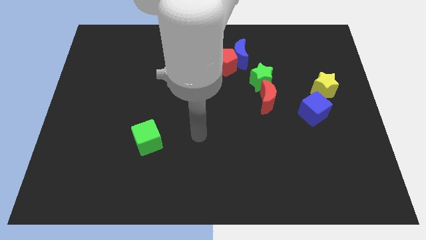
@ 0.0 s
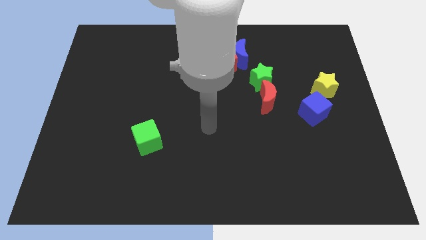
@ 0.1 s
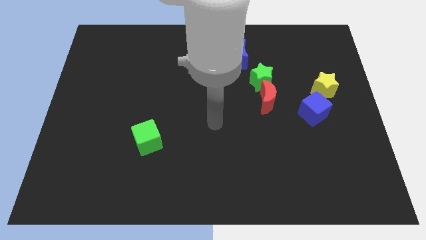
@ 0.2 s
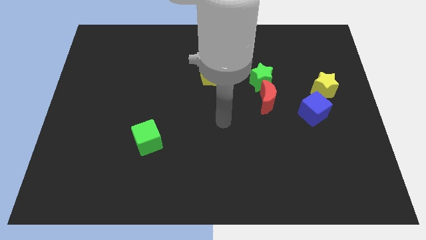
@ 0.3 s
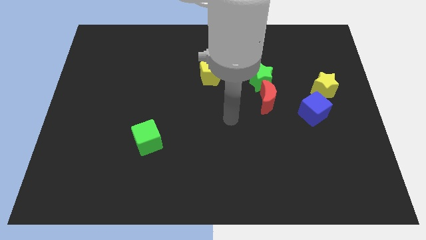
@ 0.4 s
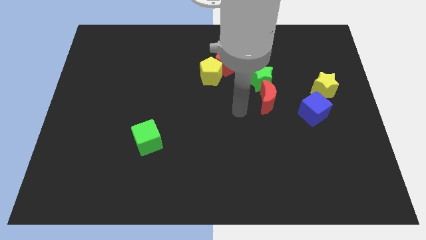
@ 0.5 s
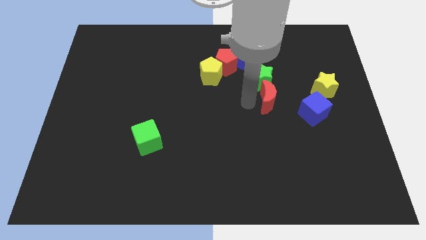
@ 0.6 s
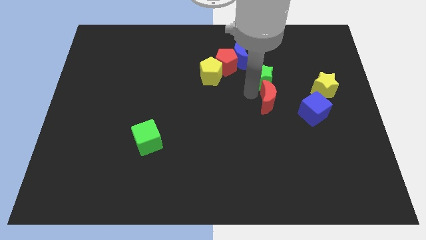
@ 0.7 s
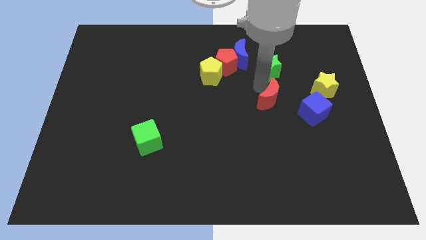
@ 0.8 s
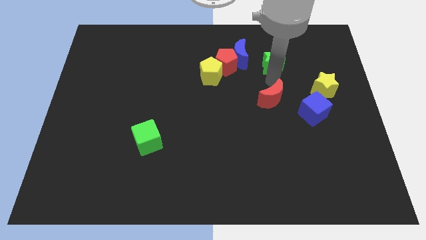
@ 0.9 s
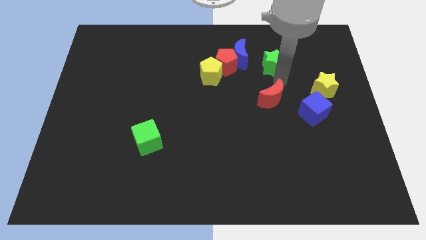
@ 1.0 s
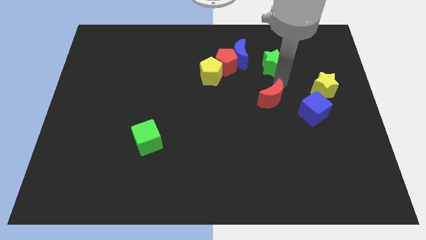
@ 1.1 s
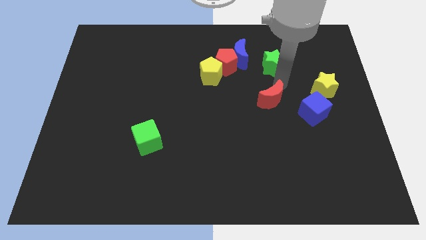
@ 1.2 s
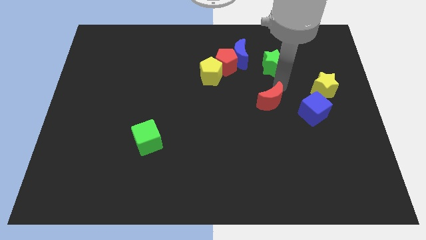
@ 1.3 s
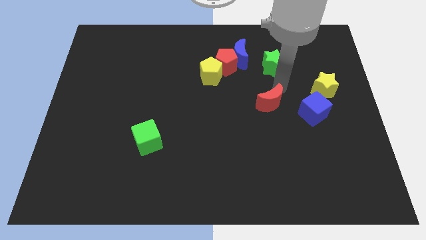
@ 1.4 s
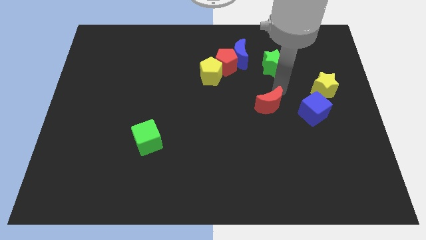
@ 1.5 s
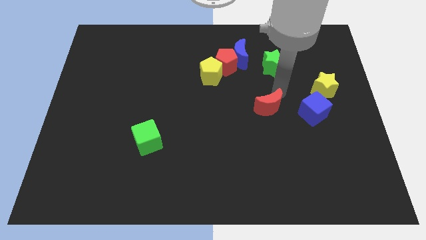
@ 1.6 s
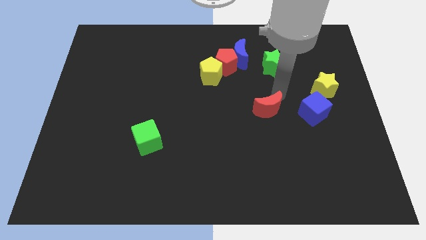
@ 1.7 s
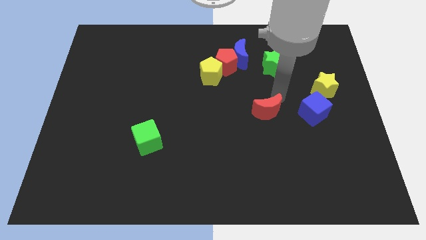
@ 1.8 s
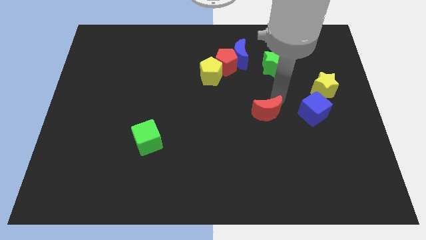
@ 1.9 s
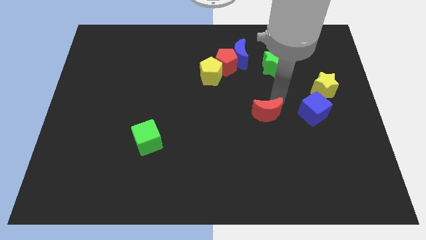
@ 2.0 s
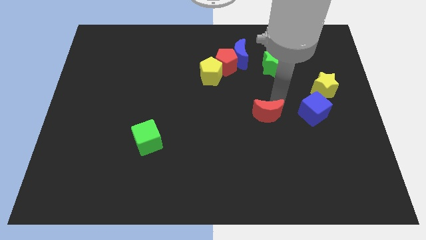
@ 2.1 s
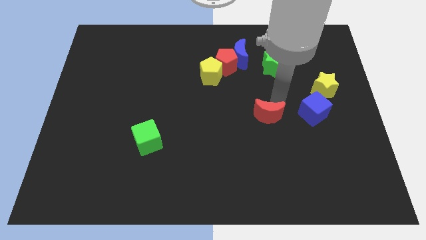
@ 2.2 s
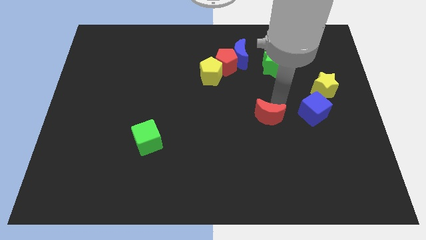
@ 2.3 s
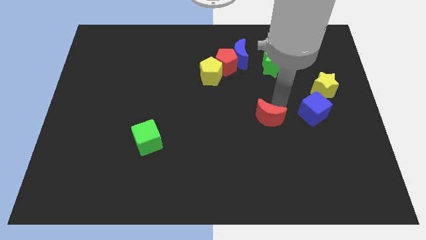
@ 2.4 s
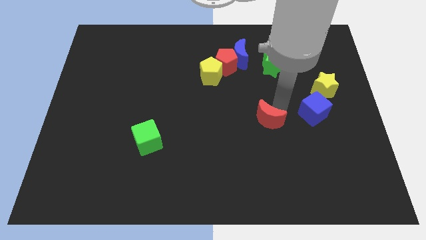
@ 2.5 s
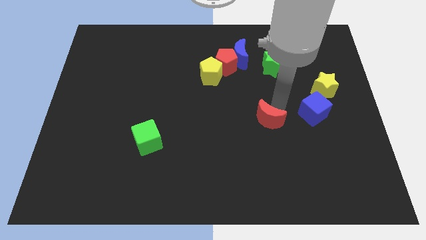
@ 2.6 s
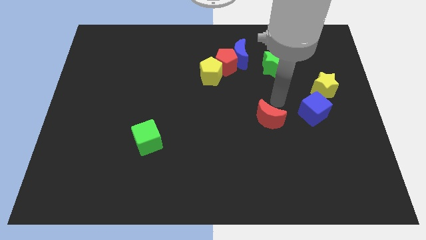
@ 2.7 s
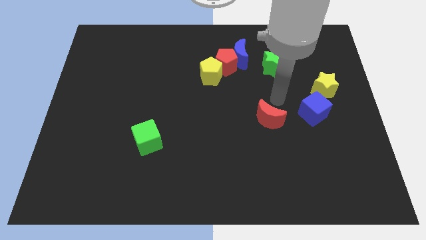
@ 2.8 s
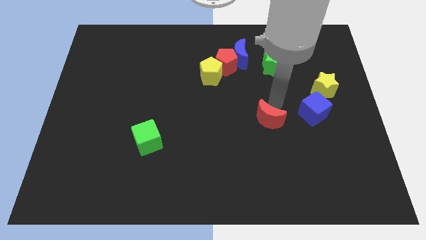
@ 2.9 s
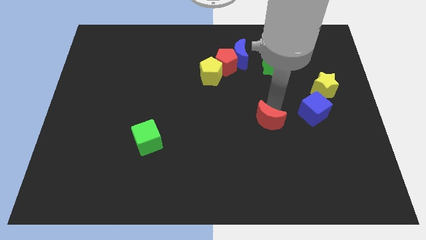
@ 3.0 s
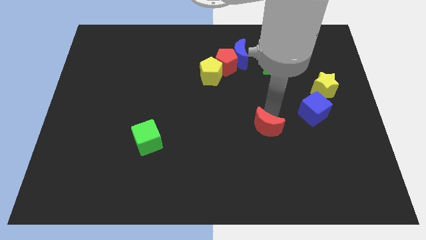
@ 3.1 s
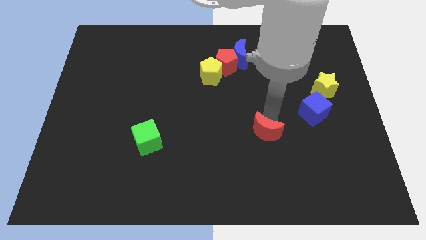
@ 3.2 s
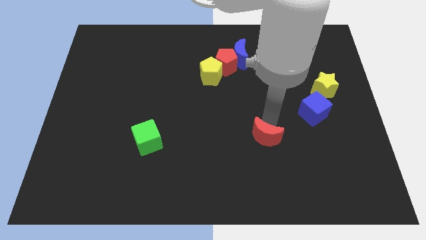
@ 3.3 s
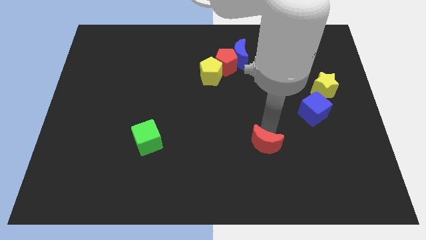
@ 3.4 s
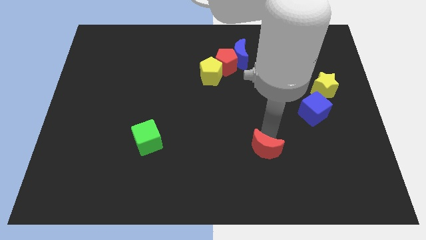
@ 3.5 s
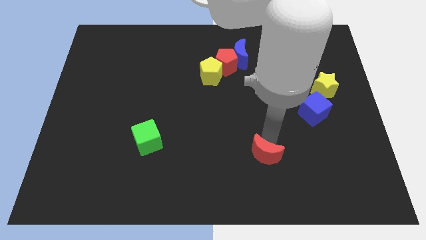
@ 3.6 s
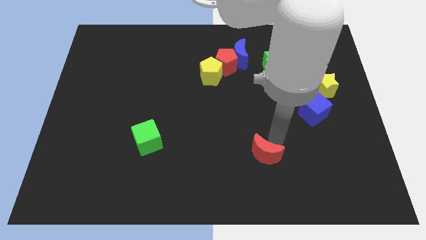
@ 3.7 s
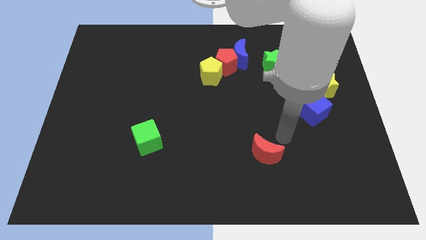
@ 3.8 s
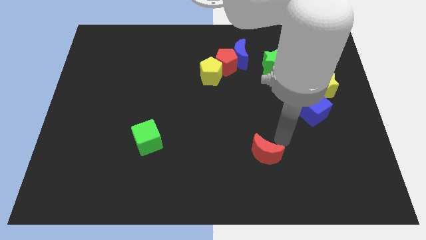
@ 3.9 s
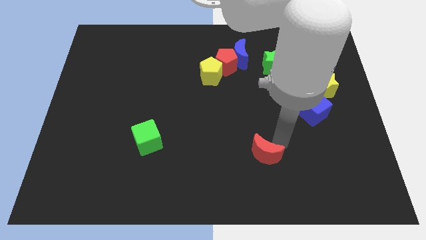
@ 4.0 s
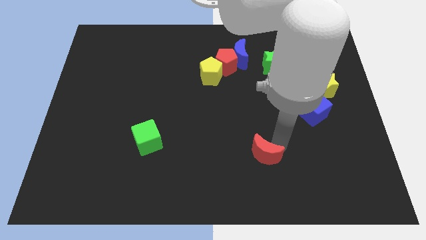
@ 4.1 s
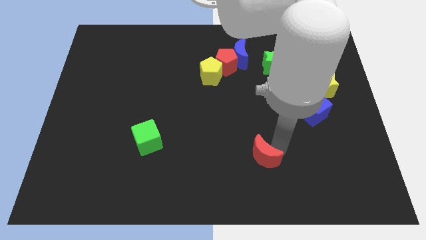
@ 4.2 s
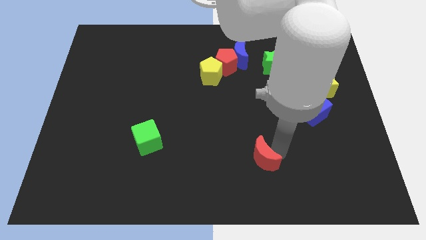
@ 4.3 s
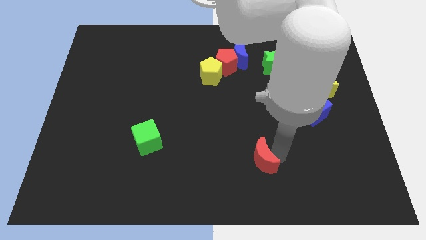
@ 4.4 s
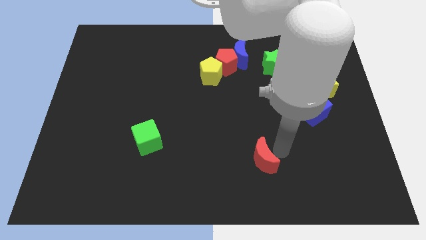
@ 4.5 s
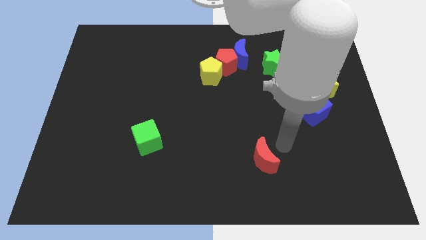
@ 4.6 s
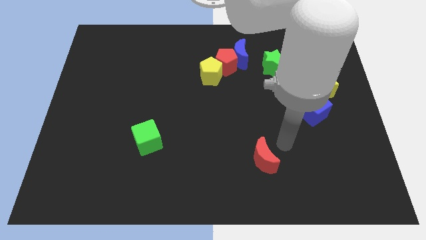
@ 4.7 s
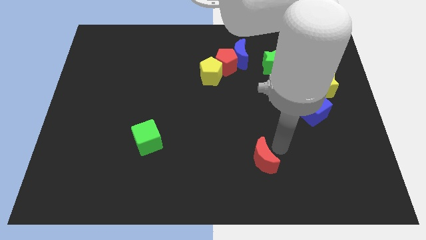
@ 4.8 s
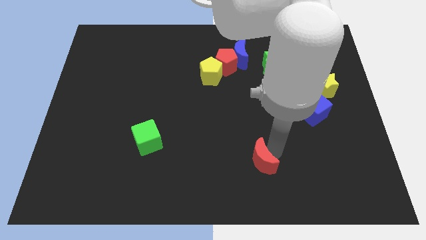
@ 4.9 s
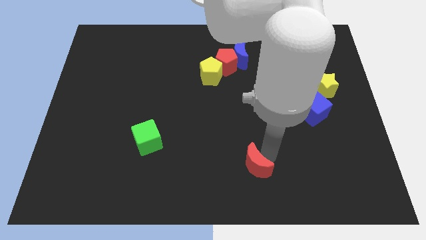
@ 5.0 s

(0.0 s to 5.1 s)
push the red moon to the bottom side
